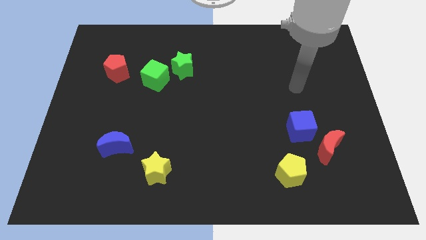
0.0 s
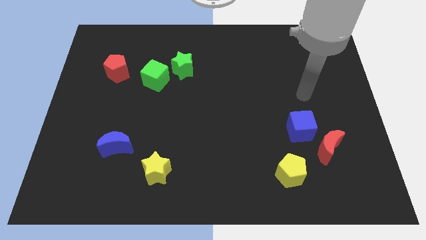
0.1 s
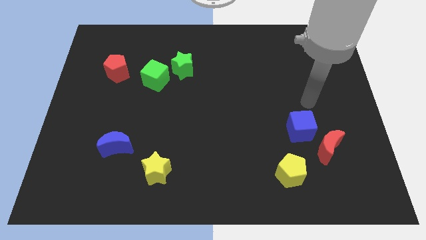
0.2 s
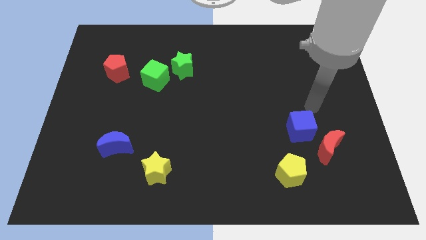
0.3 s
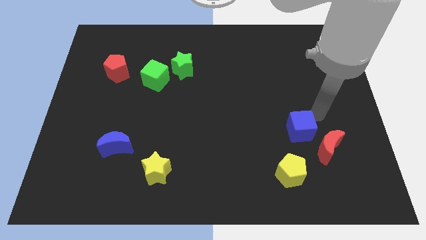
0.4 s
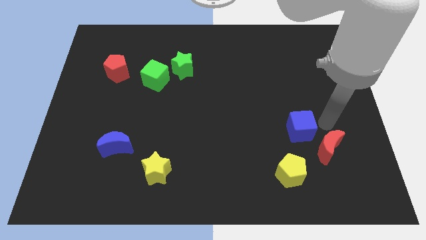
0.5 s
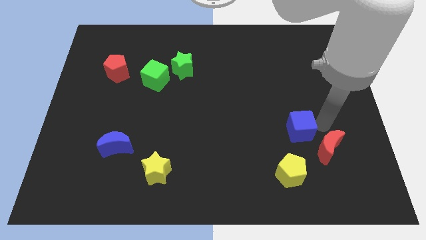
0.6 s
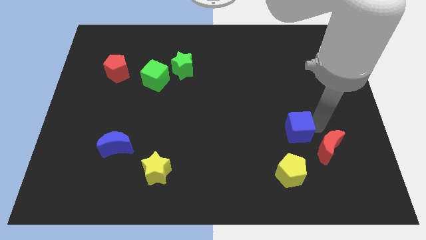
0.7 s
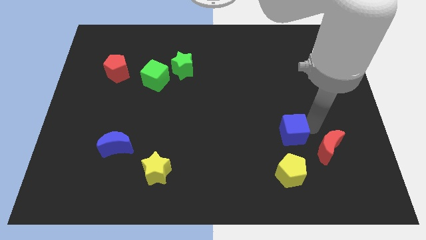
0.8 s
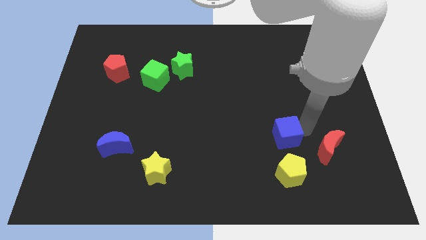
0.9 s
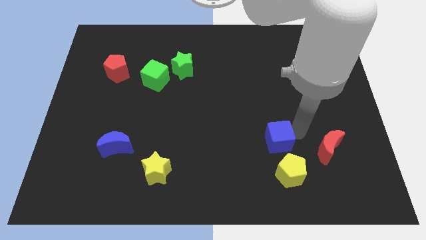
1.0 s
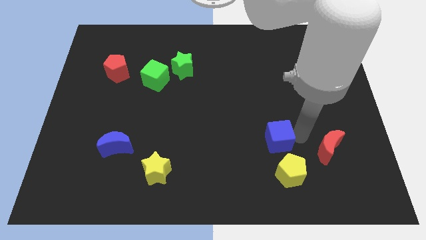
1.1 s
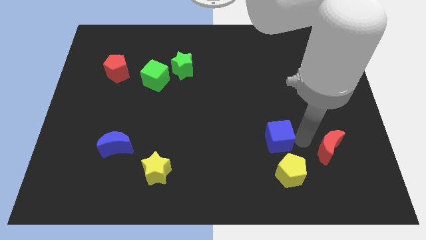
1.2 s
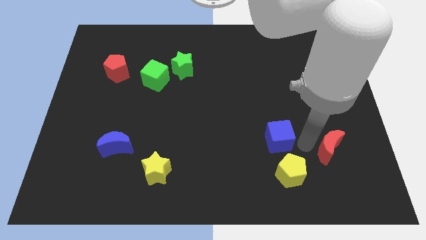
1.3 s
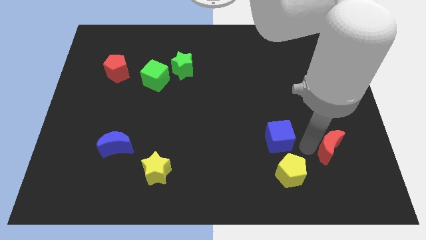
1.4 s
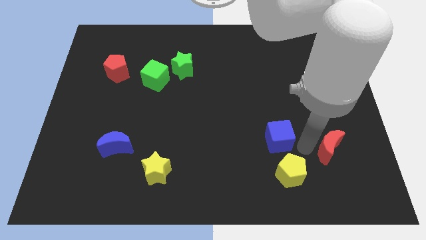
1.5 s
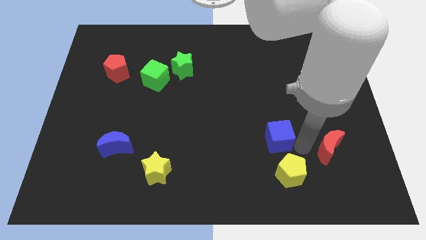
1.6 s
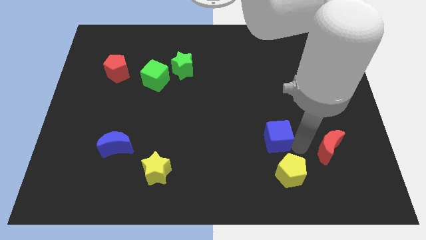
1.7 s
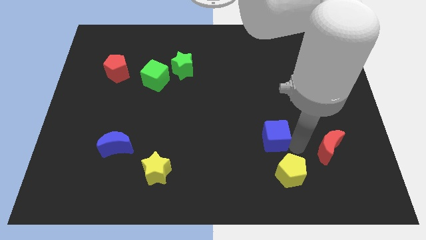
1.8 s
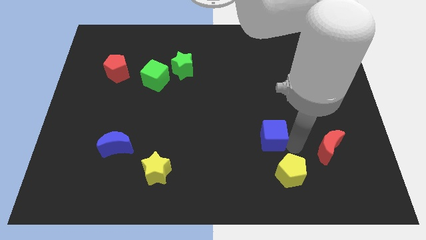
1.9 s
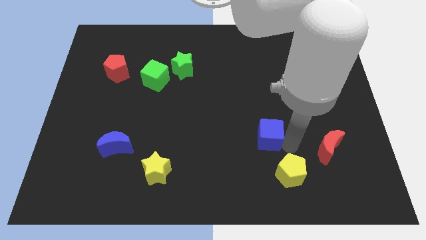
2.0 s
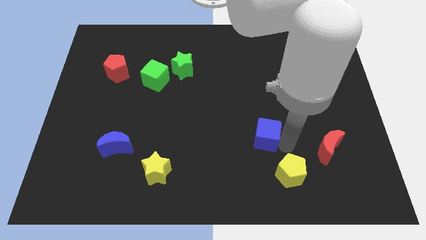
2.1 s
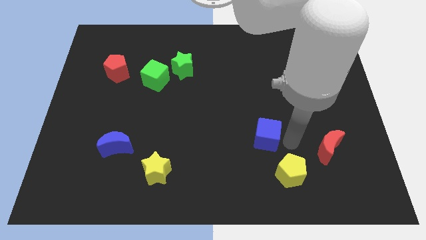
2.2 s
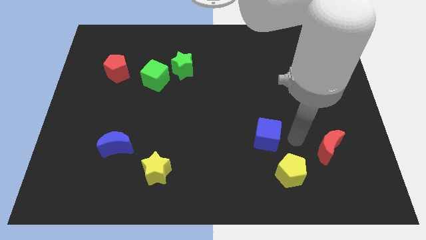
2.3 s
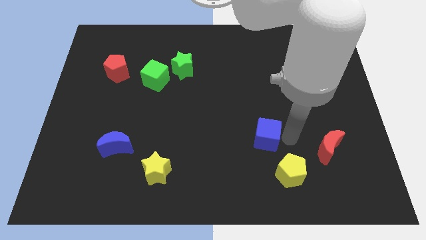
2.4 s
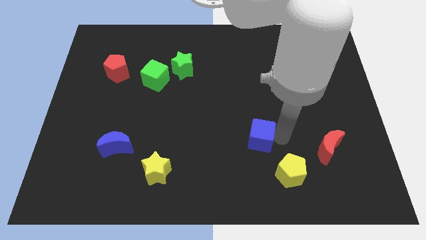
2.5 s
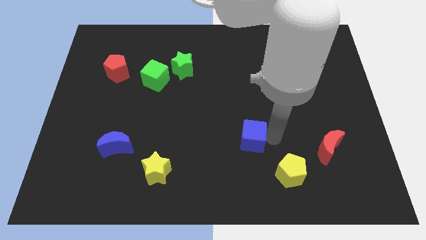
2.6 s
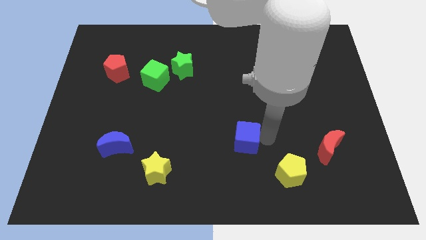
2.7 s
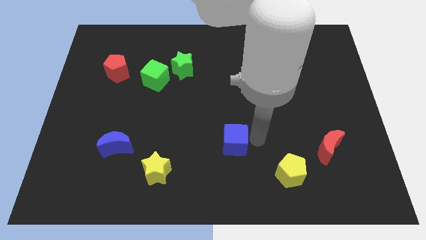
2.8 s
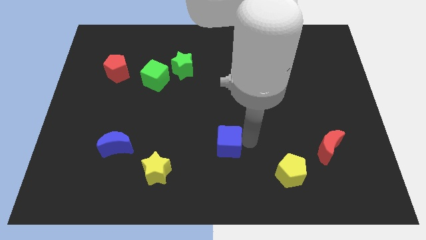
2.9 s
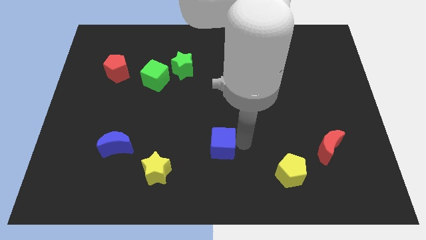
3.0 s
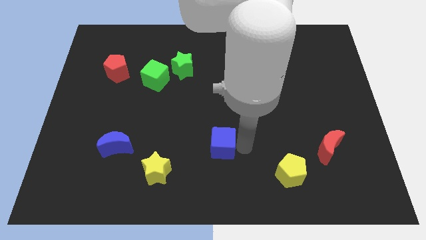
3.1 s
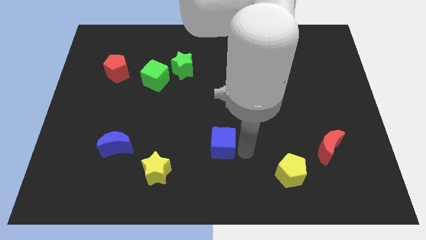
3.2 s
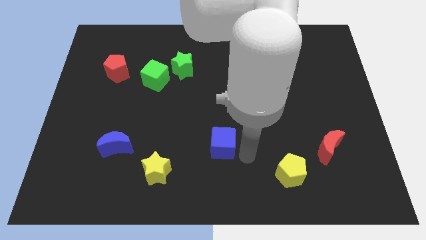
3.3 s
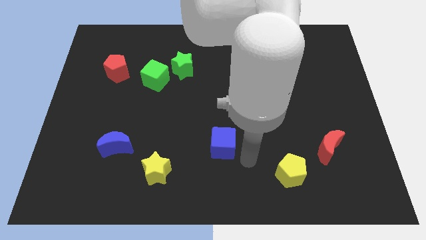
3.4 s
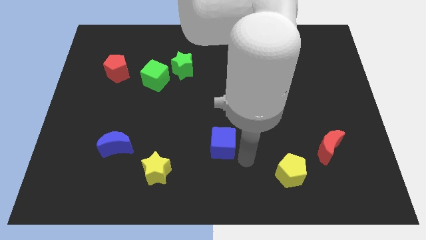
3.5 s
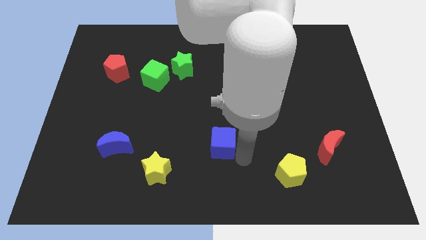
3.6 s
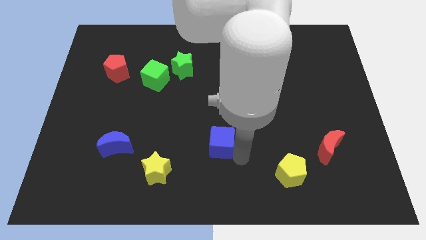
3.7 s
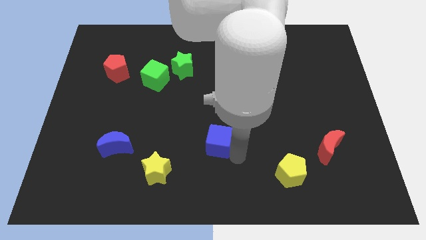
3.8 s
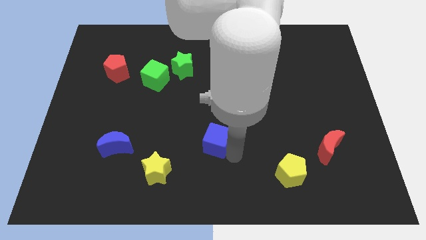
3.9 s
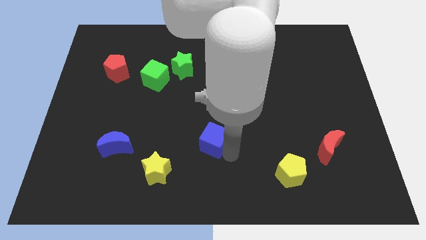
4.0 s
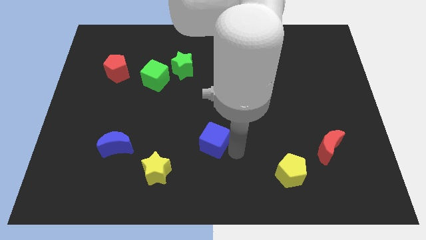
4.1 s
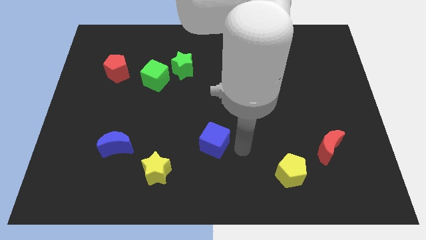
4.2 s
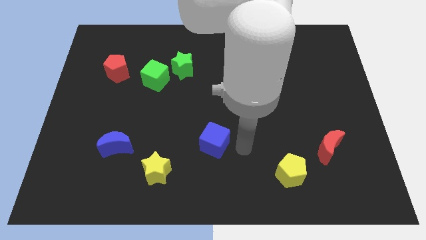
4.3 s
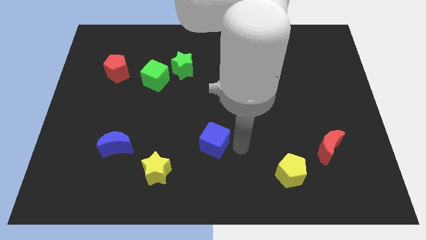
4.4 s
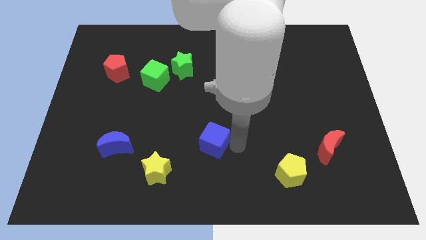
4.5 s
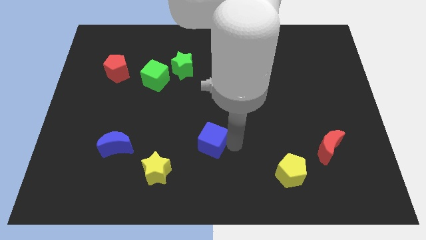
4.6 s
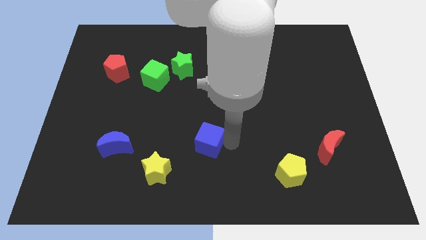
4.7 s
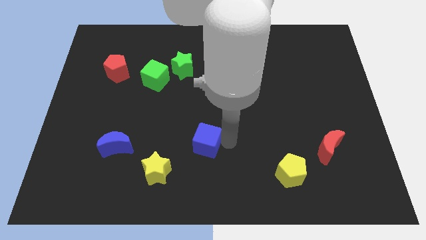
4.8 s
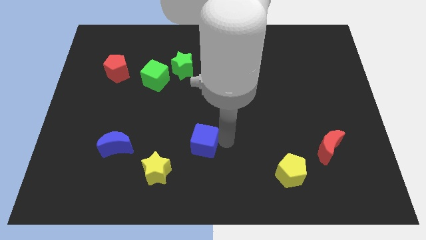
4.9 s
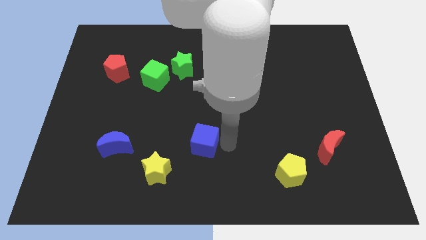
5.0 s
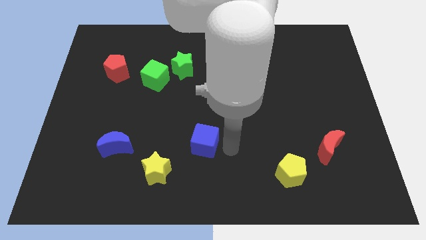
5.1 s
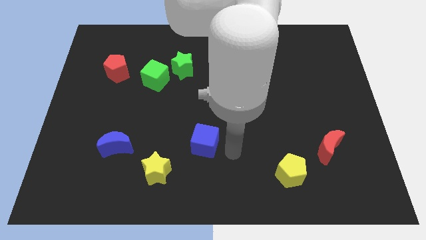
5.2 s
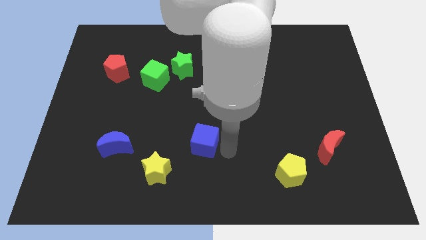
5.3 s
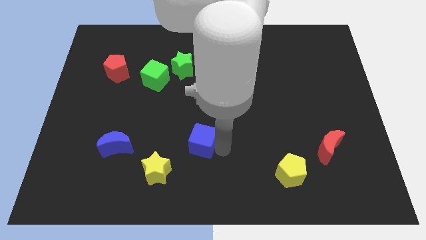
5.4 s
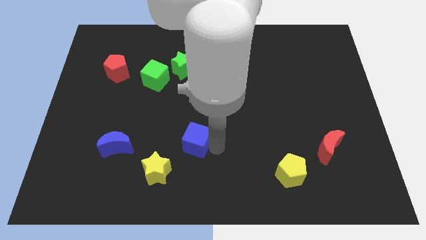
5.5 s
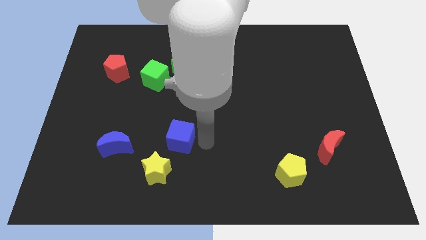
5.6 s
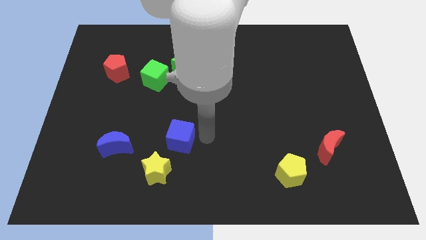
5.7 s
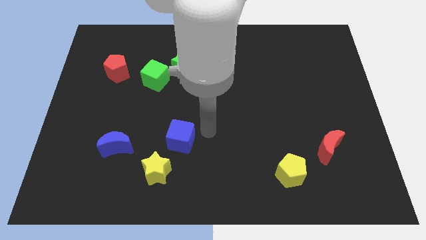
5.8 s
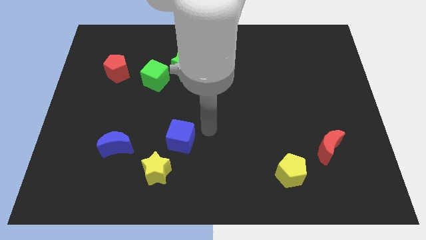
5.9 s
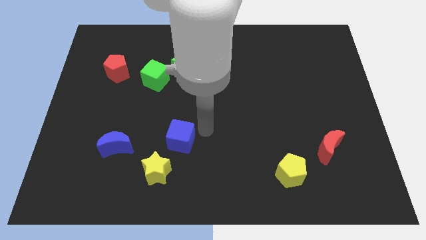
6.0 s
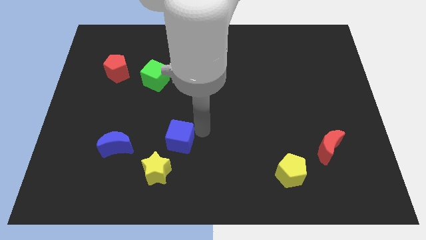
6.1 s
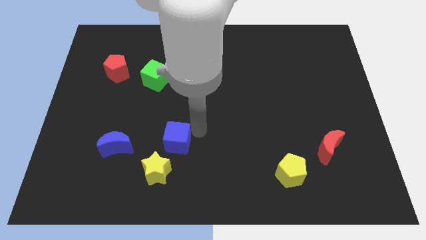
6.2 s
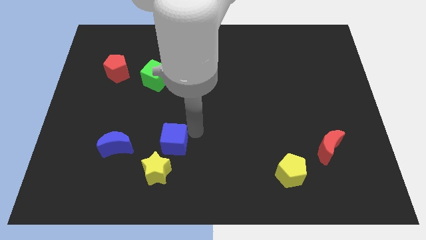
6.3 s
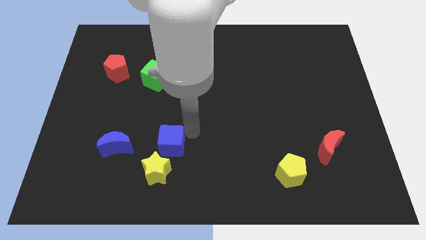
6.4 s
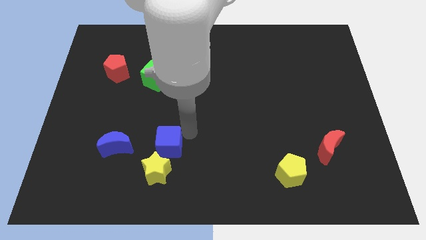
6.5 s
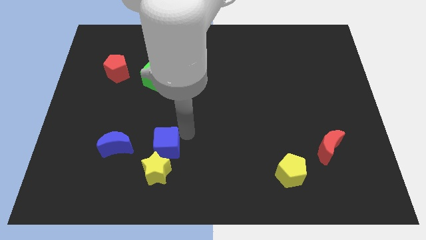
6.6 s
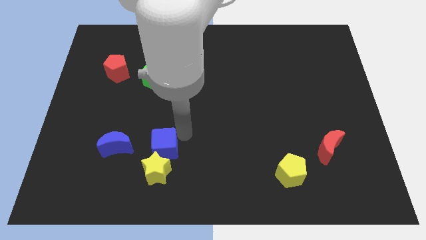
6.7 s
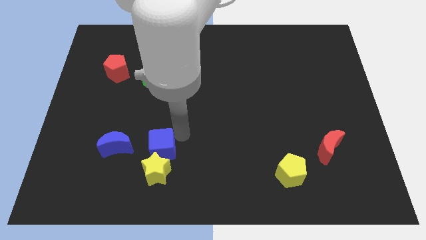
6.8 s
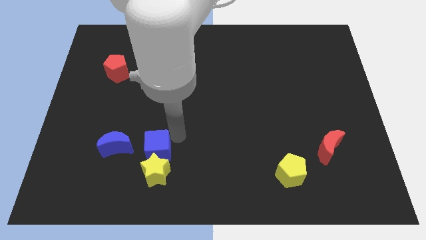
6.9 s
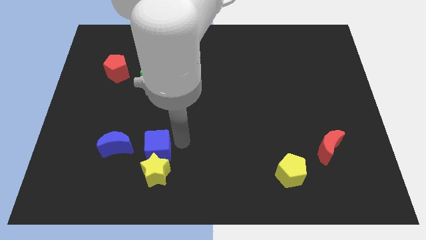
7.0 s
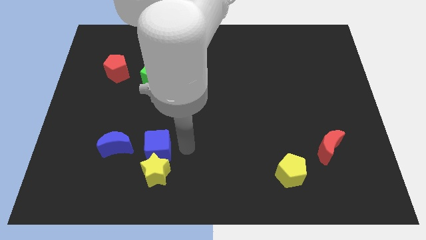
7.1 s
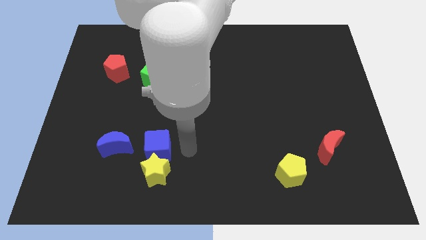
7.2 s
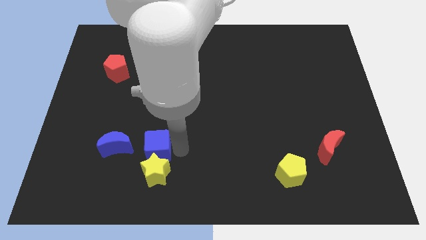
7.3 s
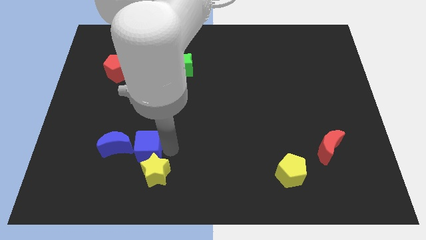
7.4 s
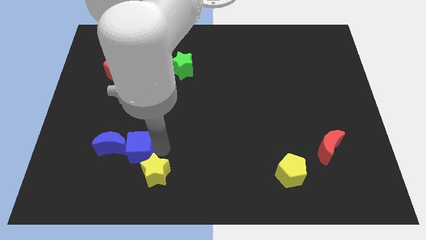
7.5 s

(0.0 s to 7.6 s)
put the blue cube close to the blue moon
